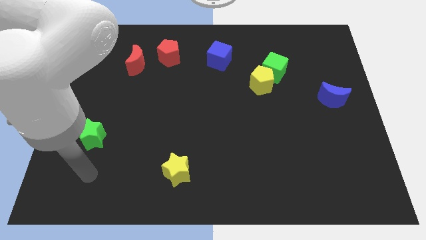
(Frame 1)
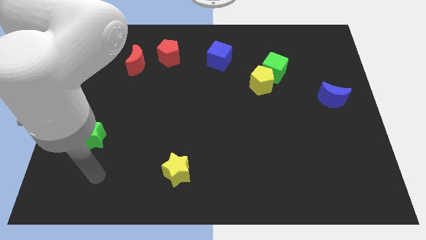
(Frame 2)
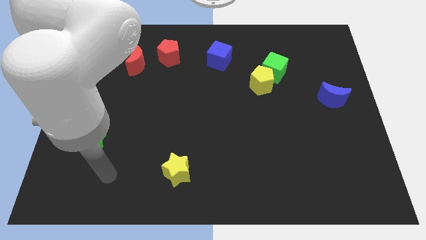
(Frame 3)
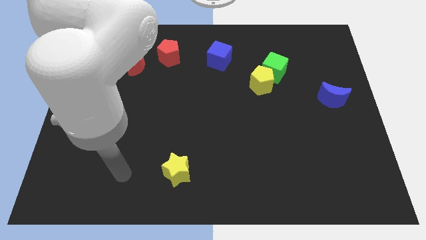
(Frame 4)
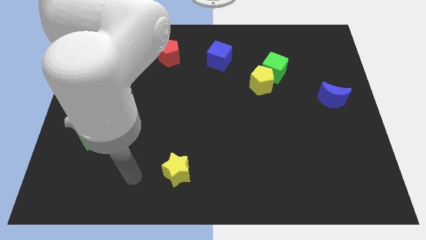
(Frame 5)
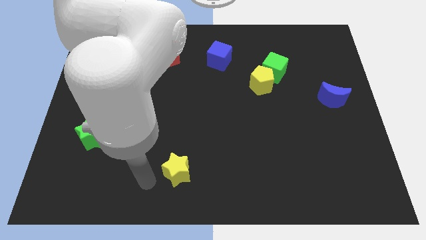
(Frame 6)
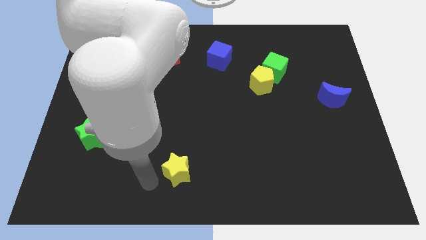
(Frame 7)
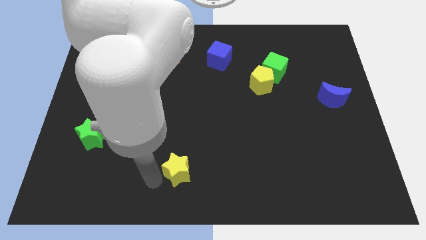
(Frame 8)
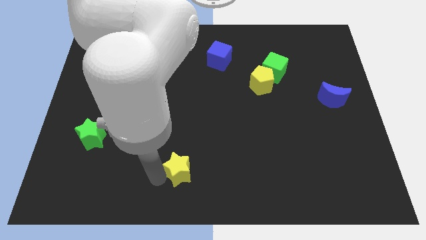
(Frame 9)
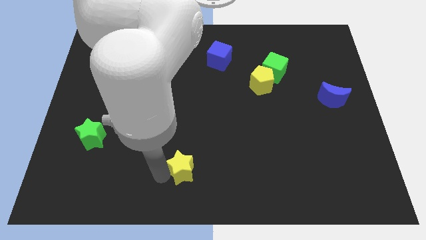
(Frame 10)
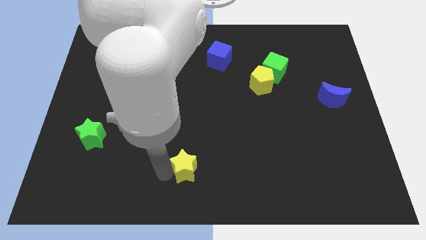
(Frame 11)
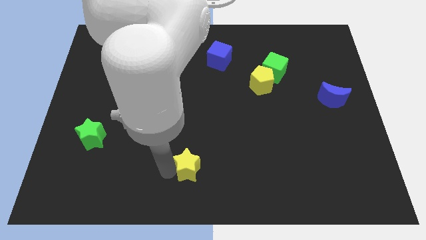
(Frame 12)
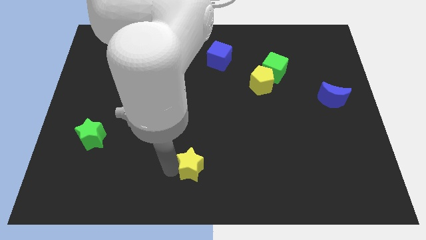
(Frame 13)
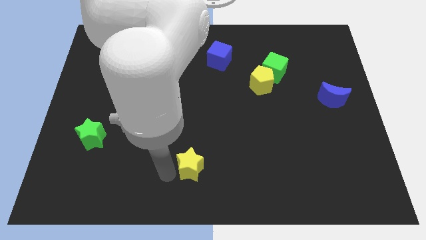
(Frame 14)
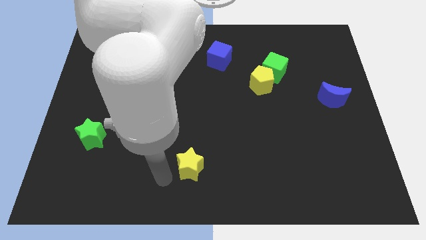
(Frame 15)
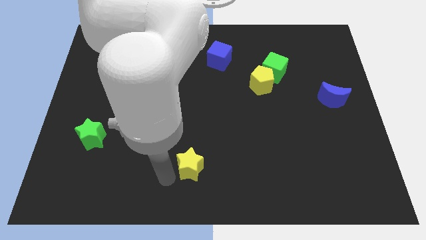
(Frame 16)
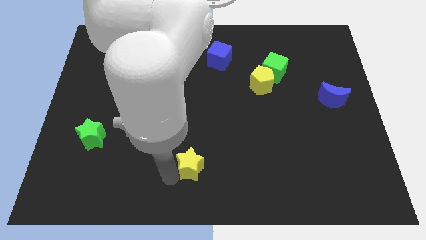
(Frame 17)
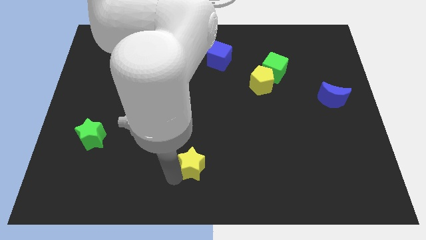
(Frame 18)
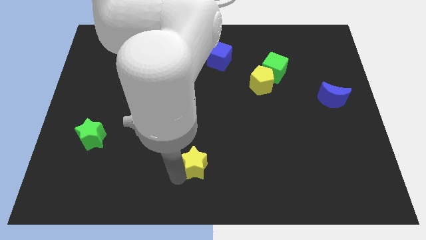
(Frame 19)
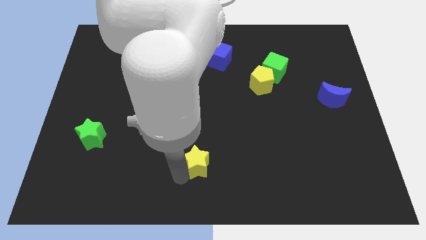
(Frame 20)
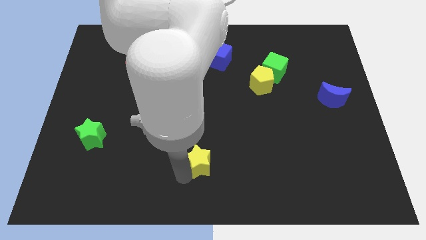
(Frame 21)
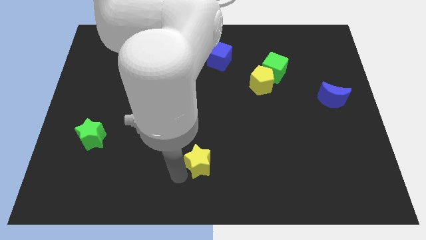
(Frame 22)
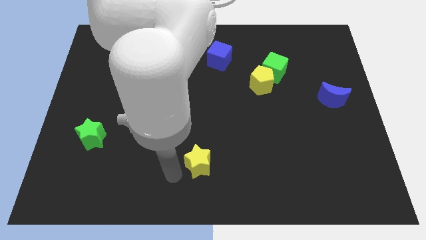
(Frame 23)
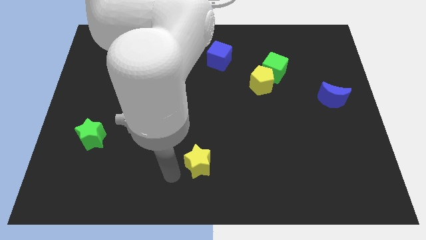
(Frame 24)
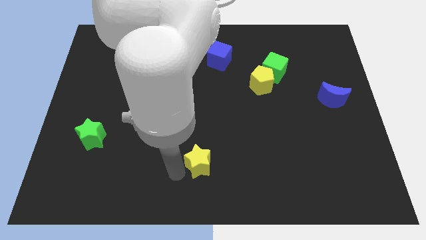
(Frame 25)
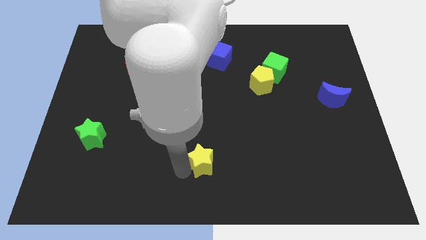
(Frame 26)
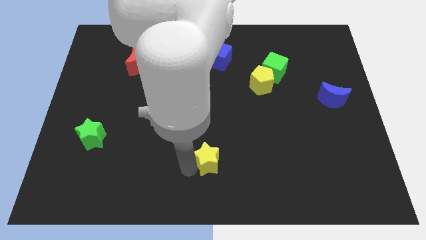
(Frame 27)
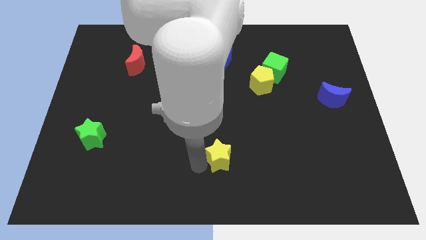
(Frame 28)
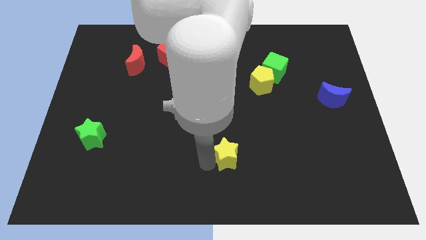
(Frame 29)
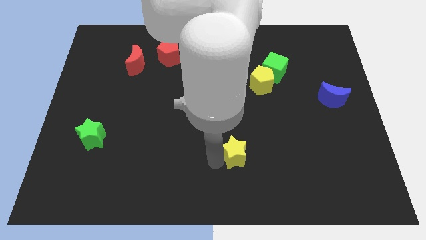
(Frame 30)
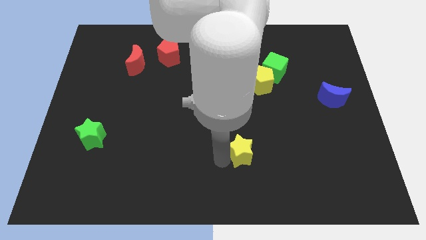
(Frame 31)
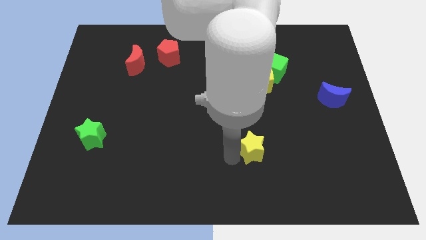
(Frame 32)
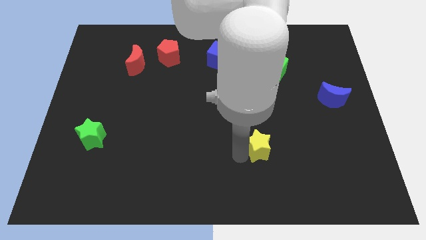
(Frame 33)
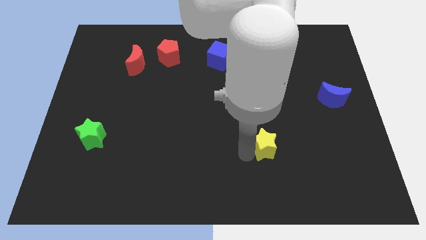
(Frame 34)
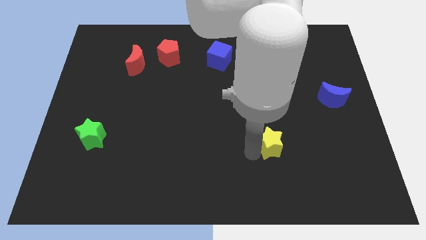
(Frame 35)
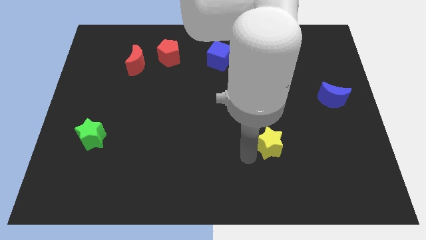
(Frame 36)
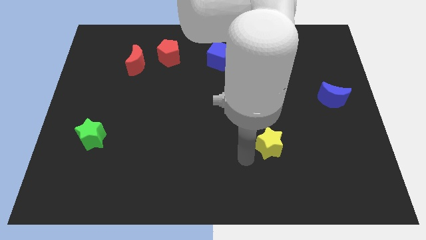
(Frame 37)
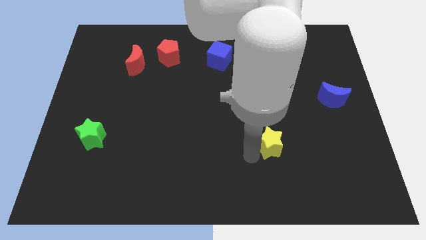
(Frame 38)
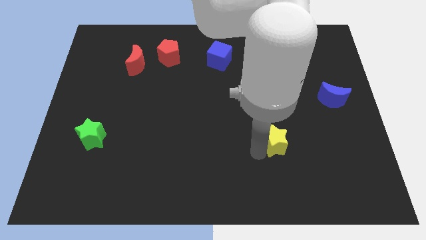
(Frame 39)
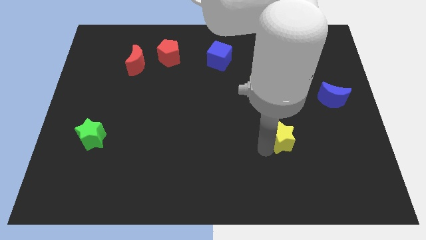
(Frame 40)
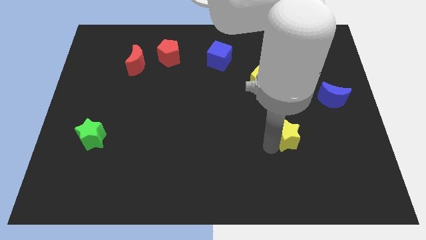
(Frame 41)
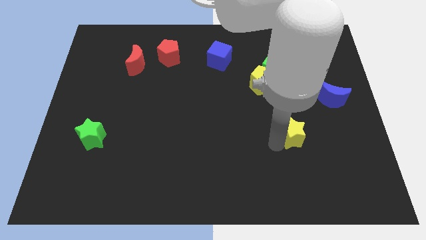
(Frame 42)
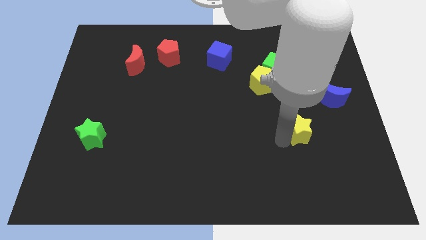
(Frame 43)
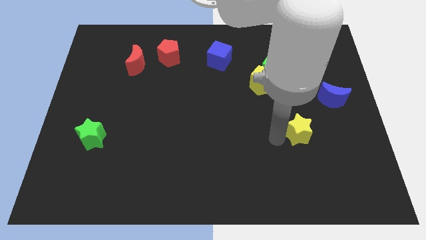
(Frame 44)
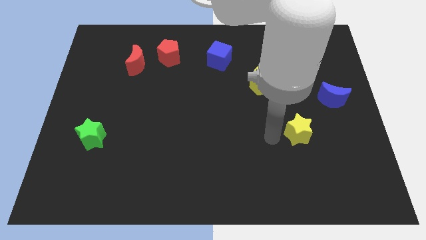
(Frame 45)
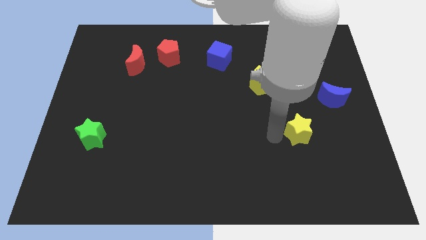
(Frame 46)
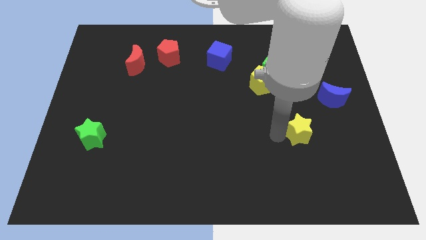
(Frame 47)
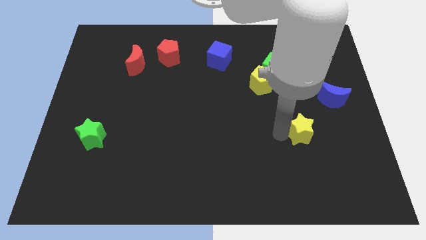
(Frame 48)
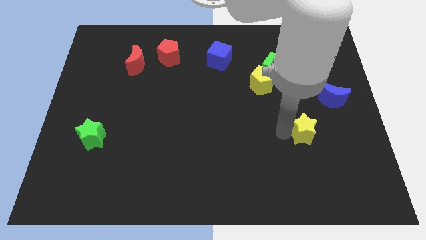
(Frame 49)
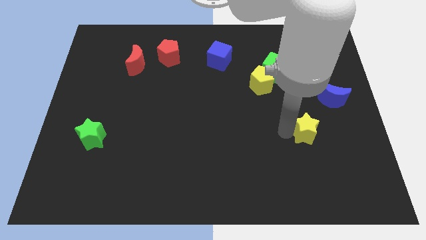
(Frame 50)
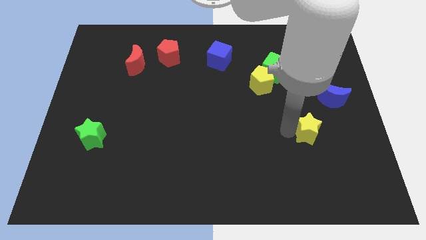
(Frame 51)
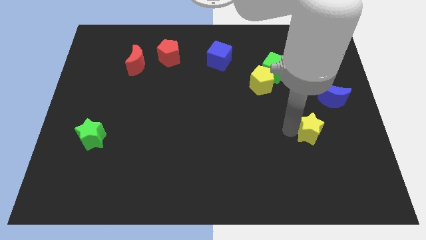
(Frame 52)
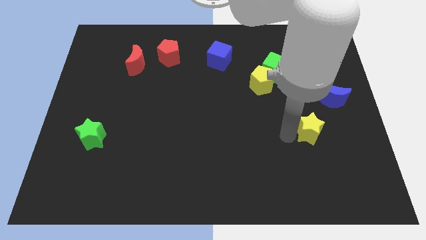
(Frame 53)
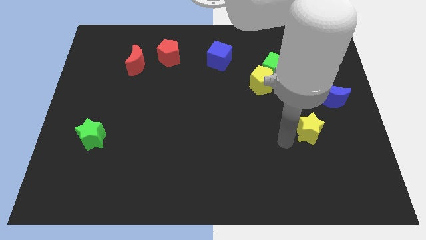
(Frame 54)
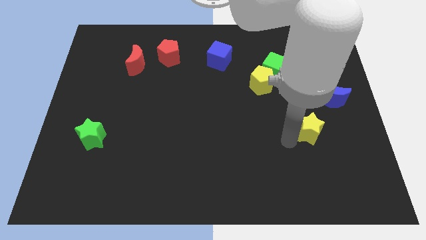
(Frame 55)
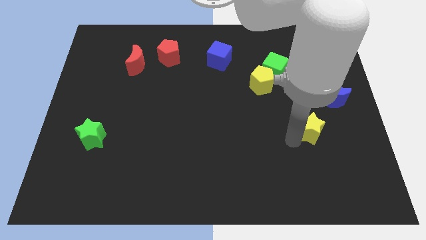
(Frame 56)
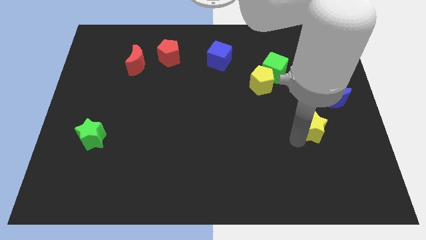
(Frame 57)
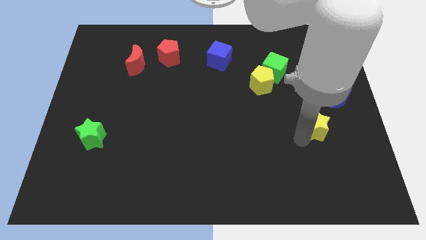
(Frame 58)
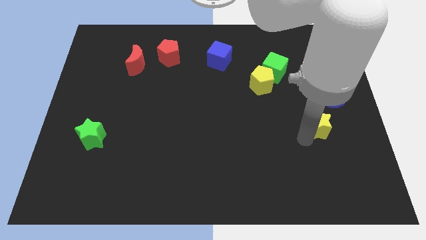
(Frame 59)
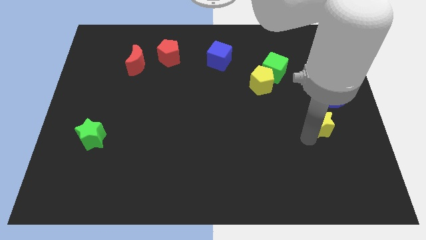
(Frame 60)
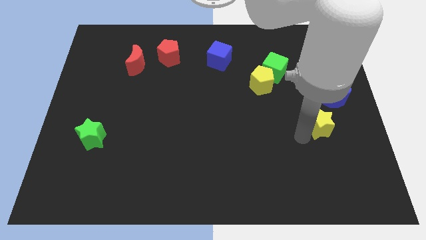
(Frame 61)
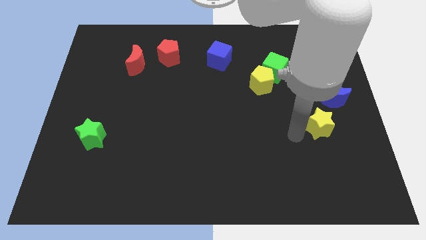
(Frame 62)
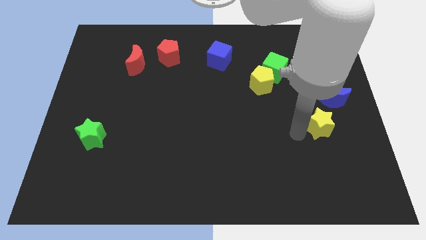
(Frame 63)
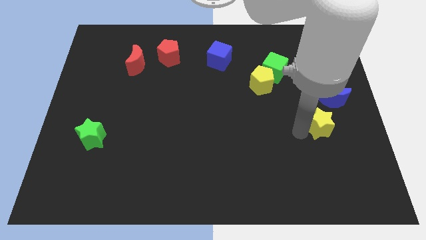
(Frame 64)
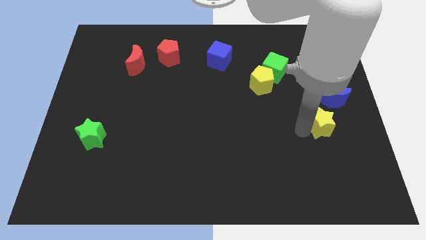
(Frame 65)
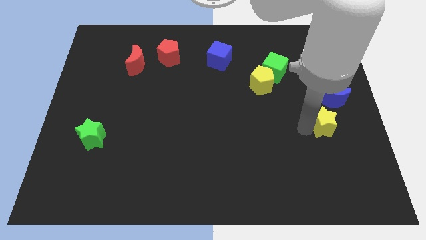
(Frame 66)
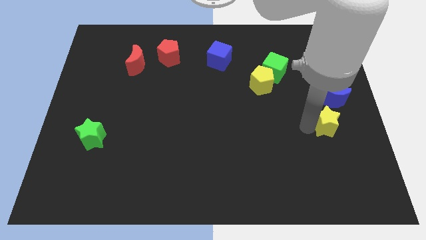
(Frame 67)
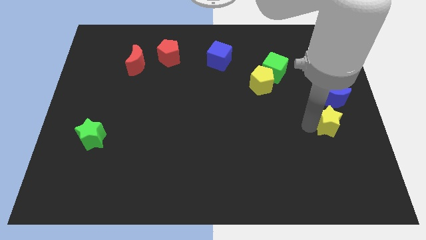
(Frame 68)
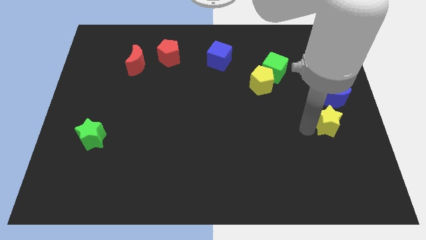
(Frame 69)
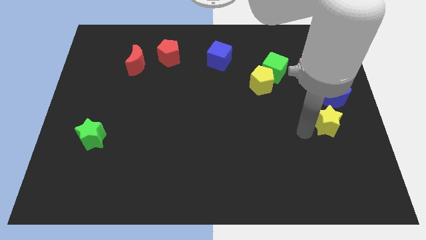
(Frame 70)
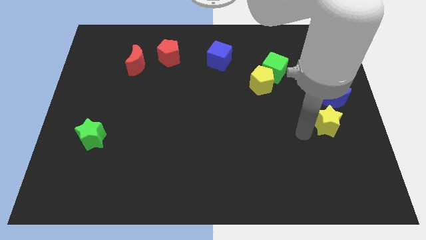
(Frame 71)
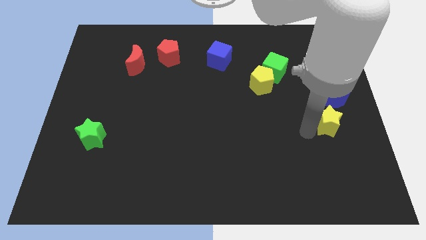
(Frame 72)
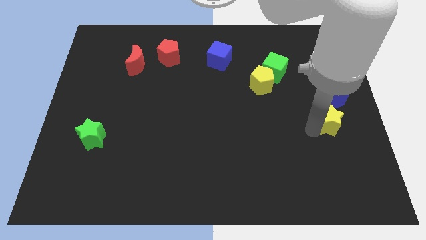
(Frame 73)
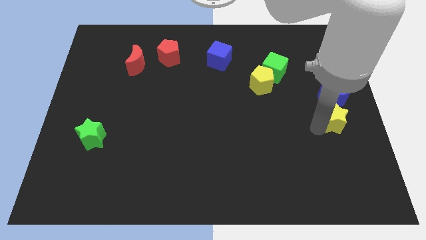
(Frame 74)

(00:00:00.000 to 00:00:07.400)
put the yellow star to the right side of the board
